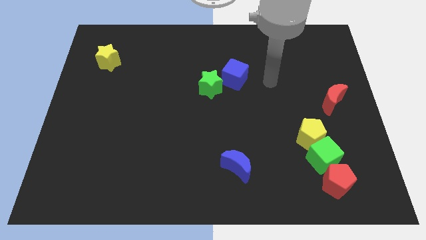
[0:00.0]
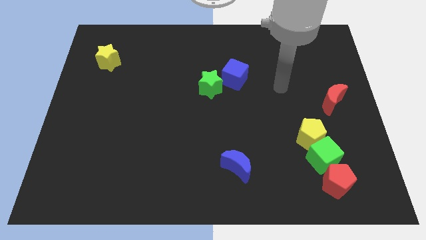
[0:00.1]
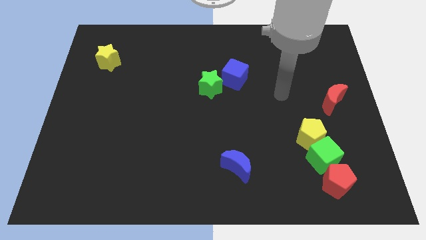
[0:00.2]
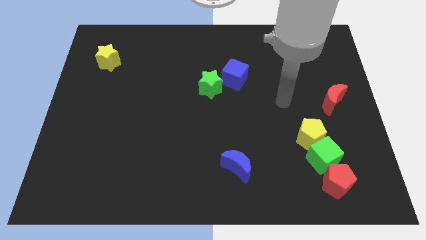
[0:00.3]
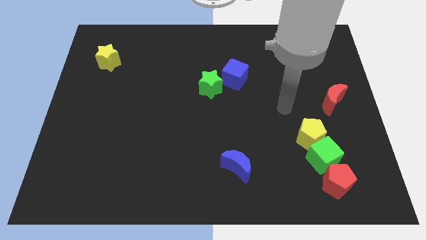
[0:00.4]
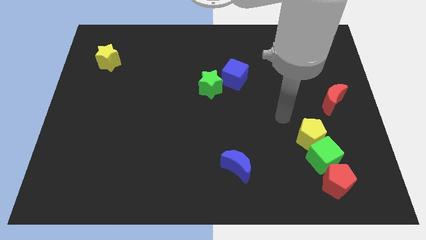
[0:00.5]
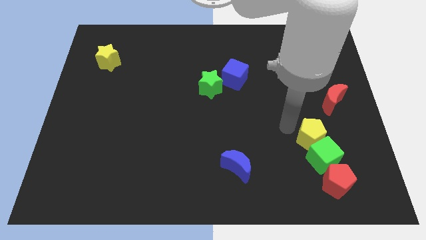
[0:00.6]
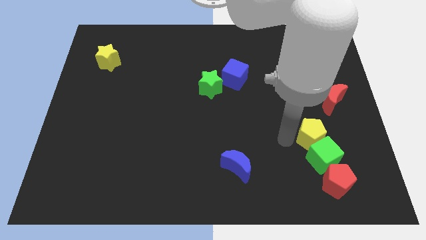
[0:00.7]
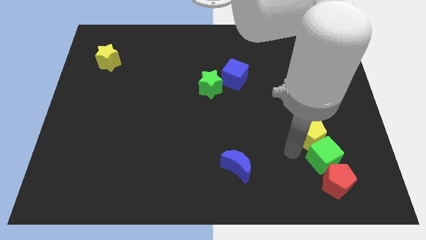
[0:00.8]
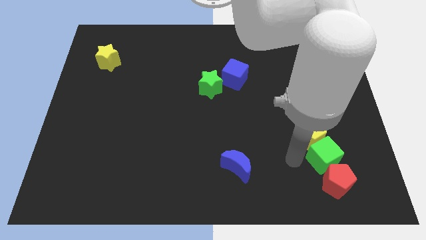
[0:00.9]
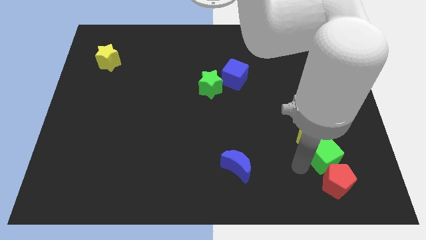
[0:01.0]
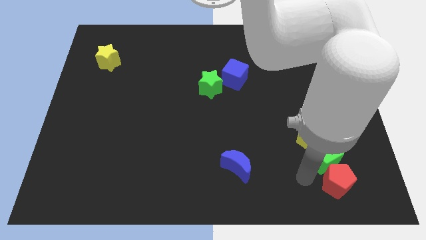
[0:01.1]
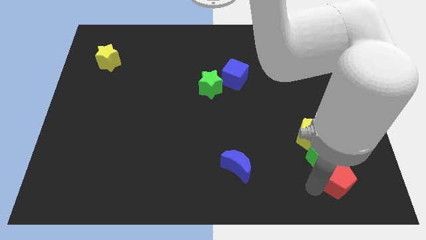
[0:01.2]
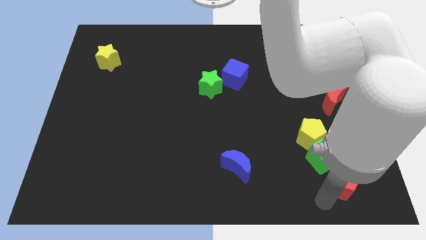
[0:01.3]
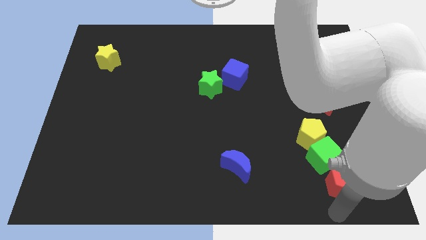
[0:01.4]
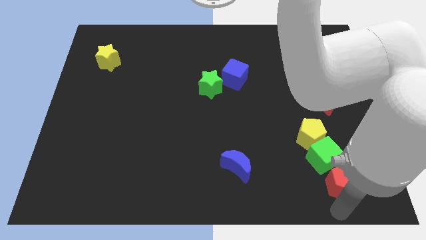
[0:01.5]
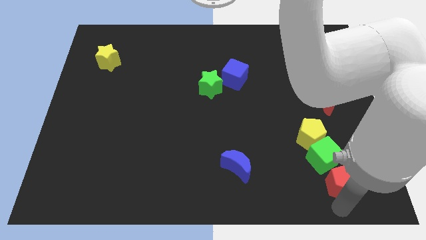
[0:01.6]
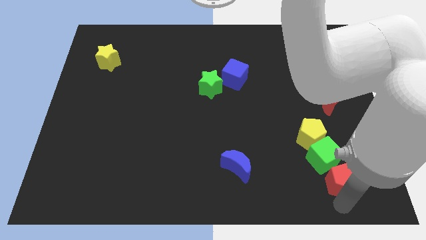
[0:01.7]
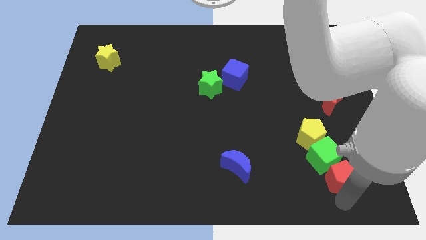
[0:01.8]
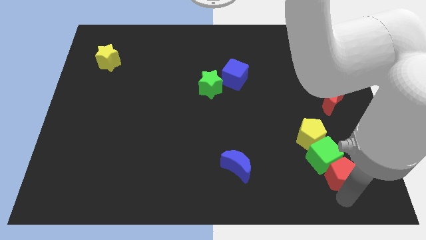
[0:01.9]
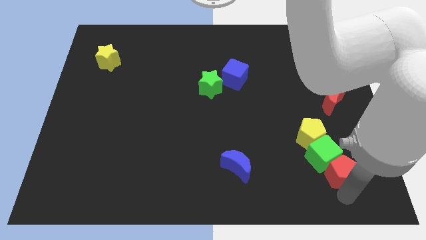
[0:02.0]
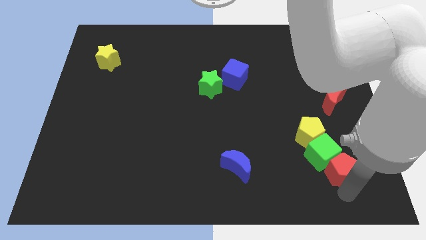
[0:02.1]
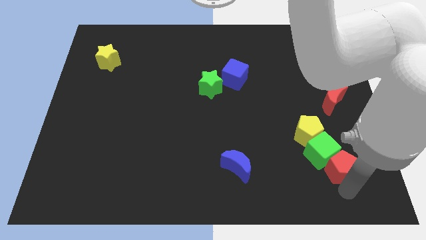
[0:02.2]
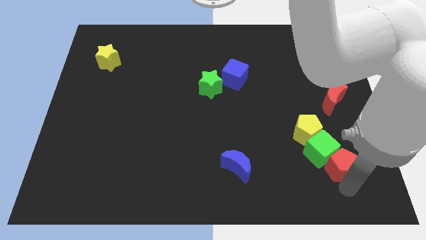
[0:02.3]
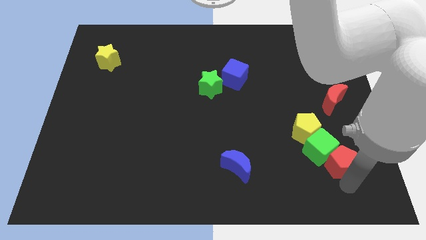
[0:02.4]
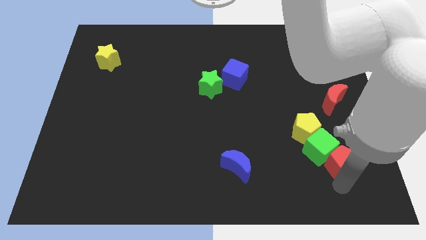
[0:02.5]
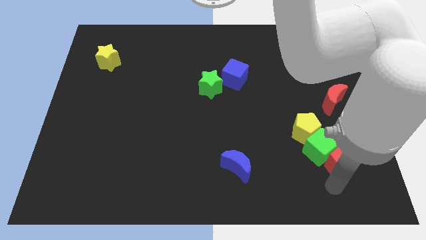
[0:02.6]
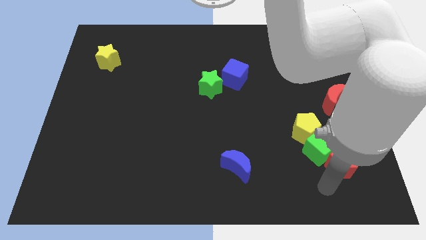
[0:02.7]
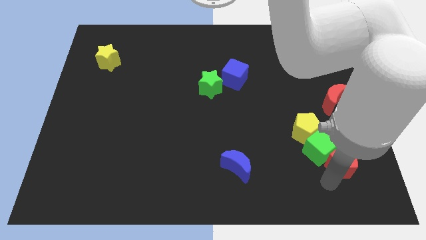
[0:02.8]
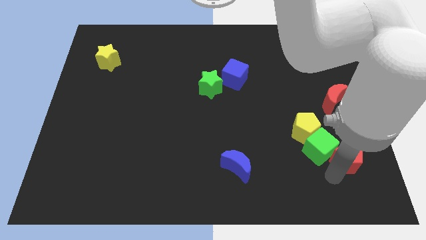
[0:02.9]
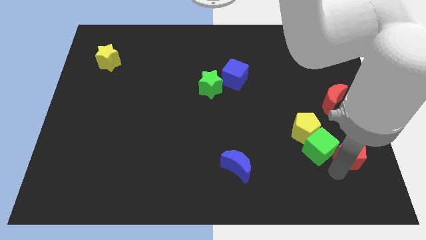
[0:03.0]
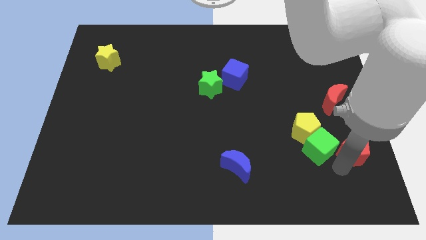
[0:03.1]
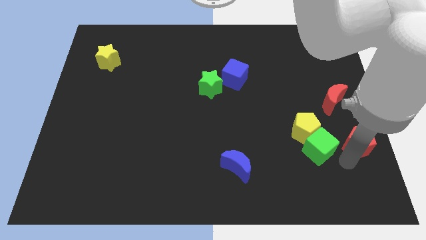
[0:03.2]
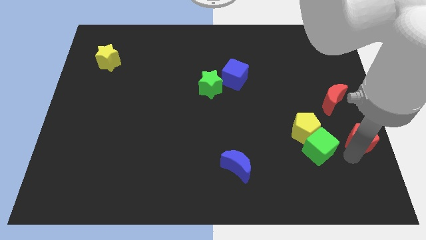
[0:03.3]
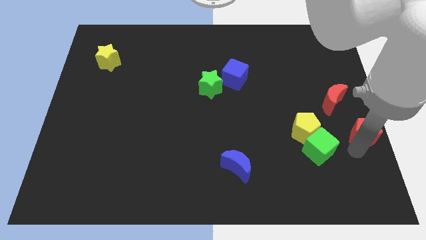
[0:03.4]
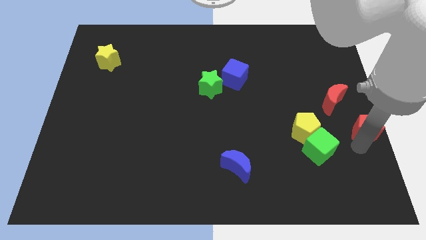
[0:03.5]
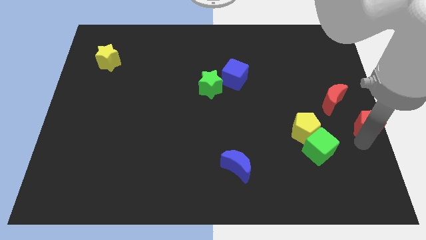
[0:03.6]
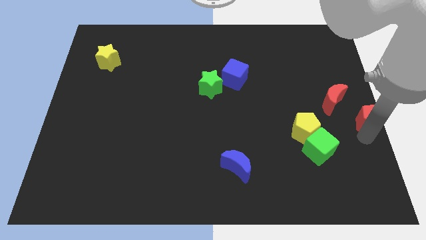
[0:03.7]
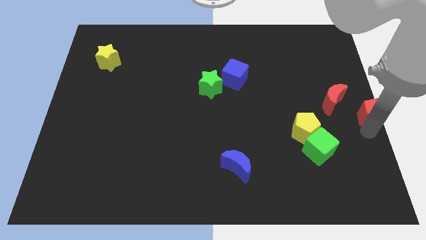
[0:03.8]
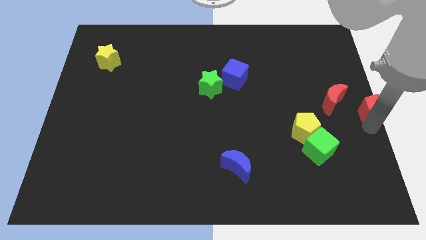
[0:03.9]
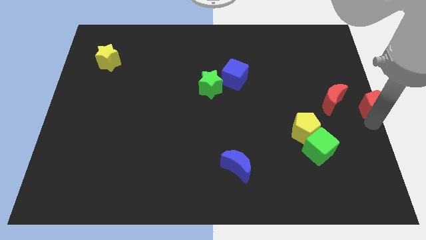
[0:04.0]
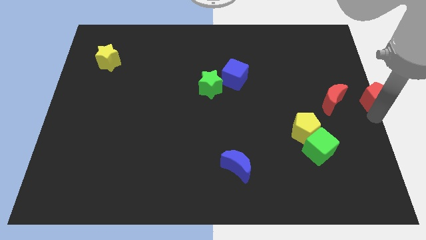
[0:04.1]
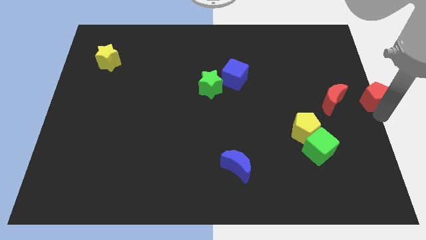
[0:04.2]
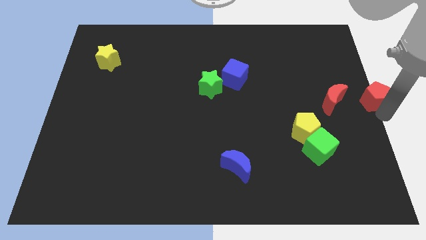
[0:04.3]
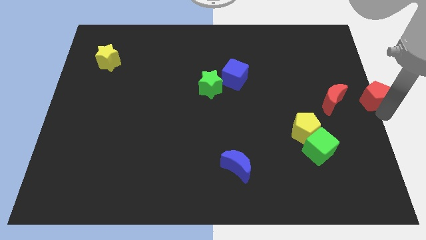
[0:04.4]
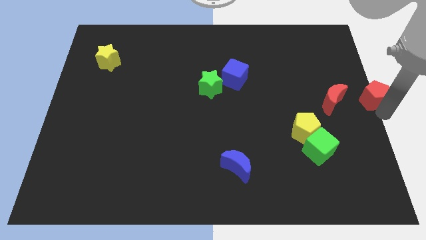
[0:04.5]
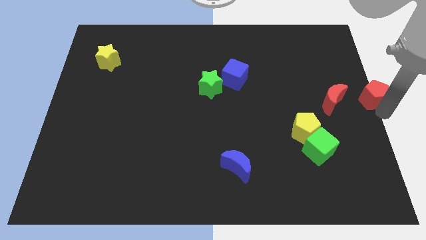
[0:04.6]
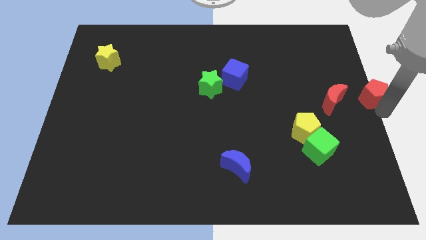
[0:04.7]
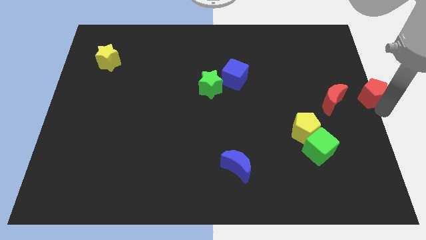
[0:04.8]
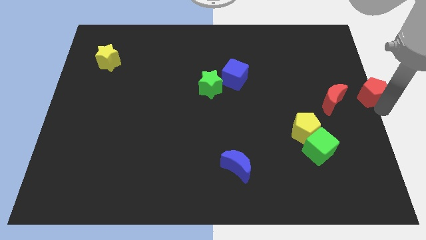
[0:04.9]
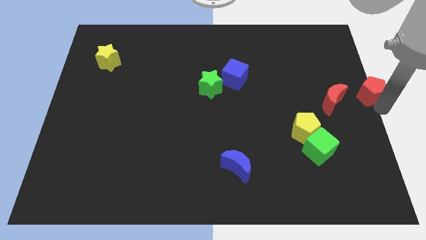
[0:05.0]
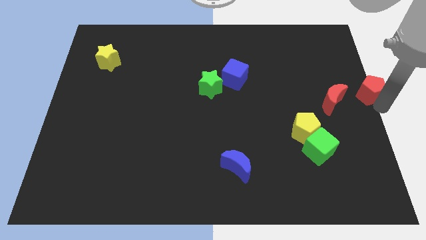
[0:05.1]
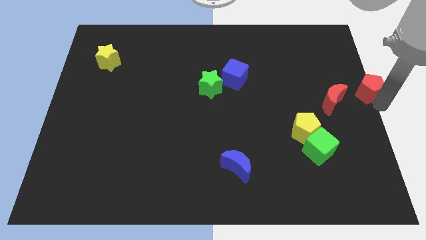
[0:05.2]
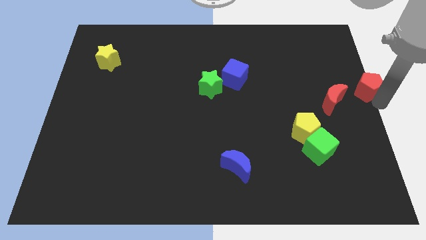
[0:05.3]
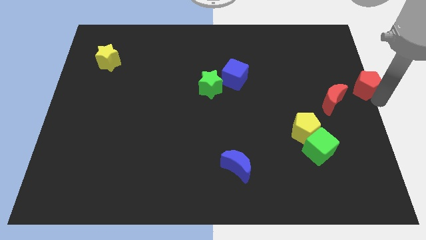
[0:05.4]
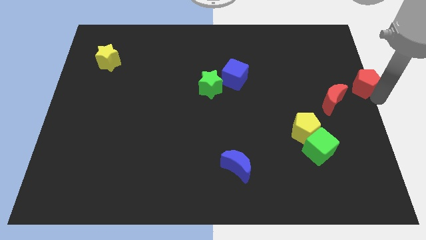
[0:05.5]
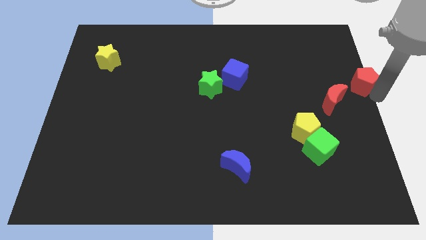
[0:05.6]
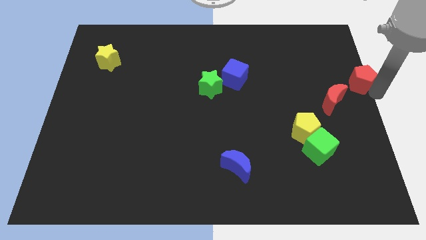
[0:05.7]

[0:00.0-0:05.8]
move the red pentagon up
